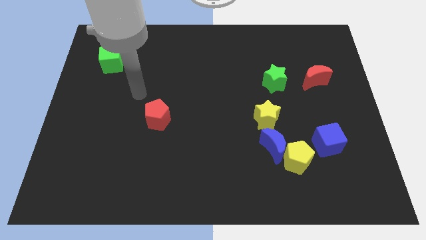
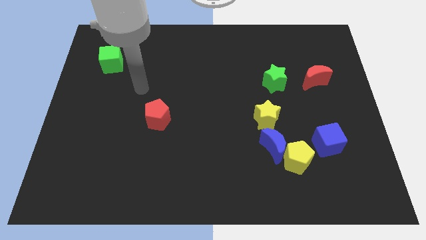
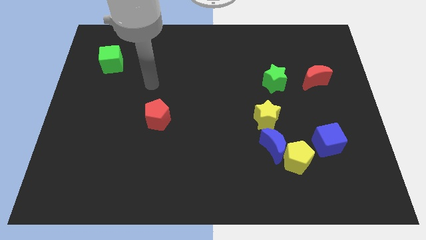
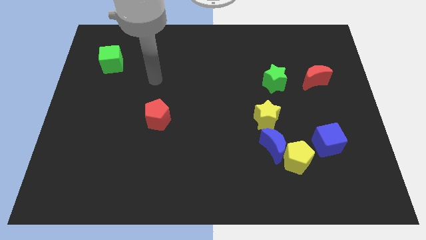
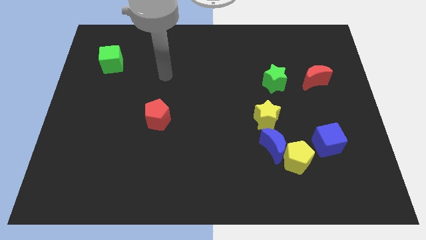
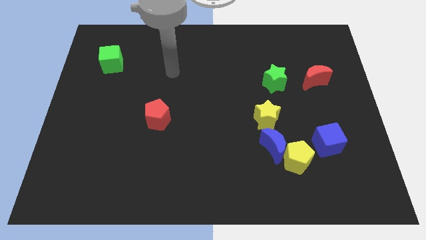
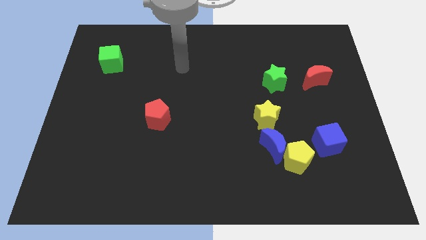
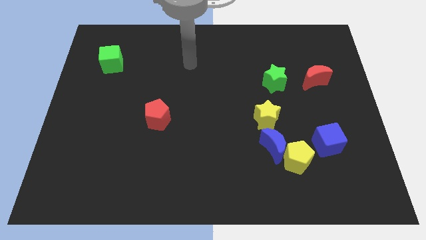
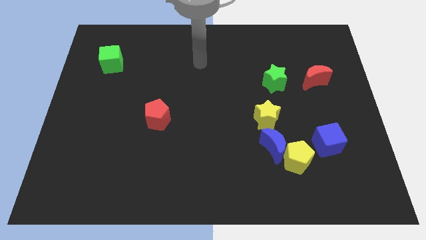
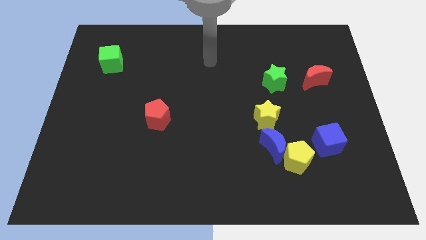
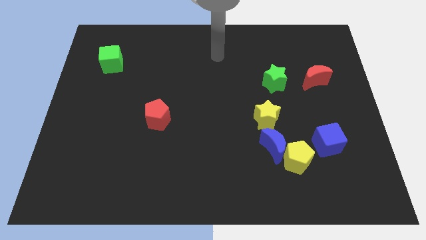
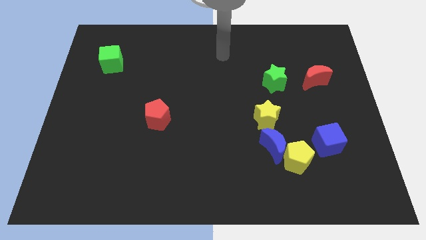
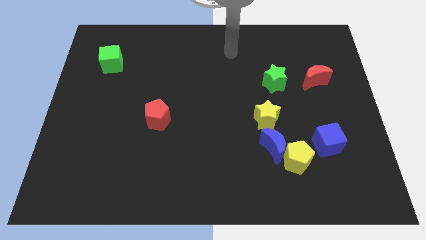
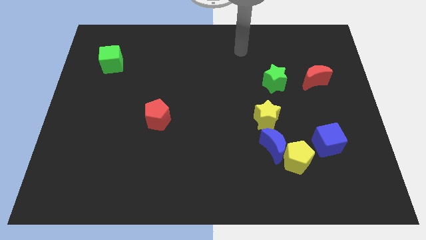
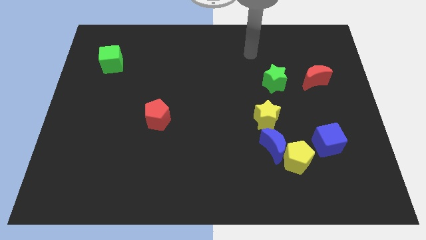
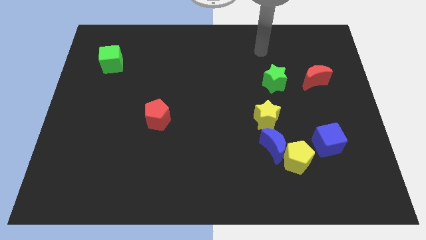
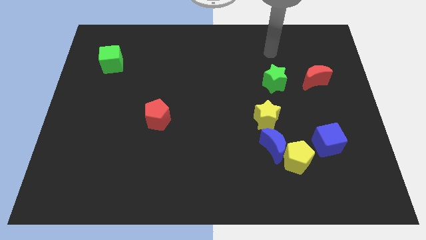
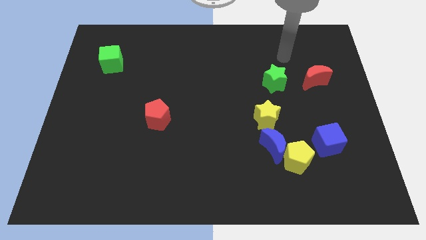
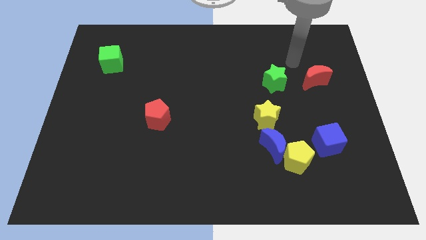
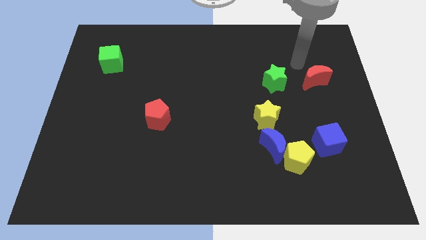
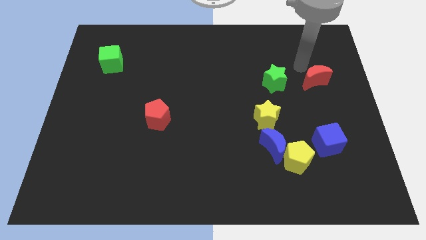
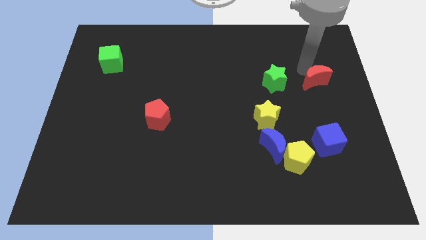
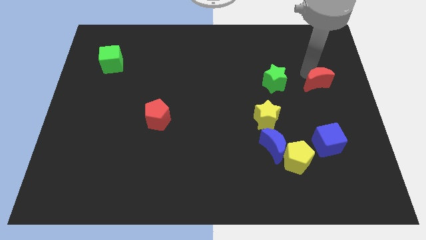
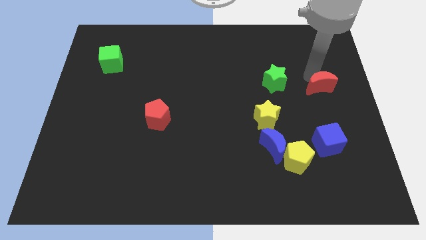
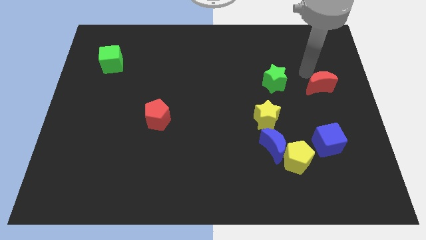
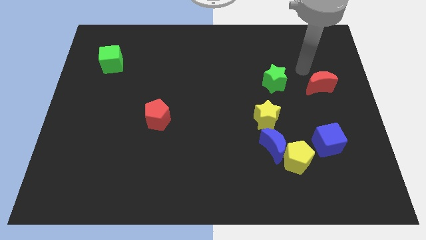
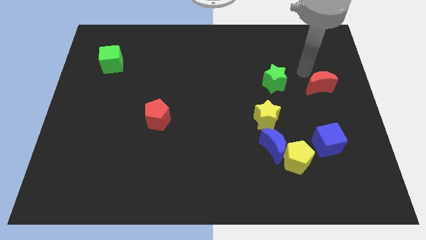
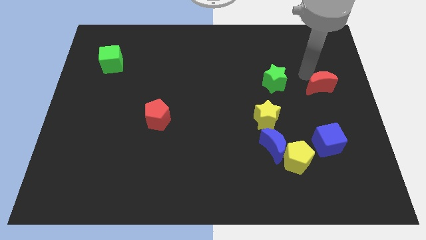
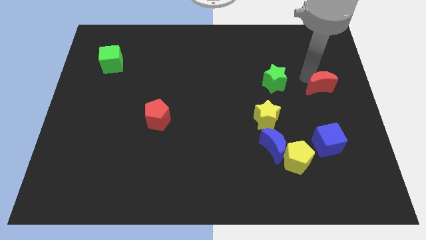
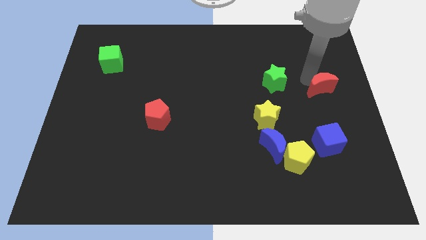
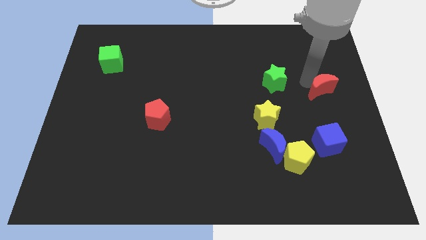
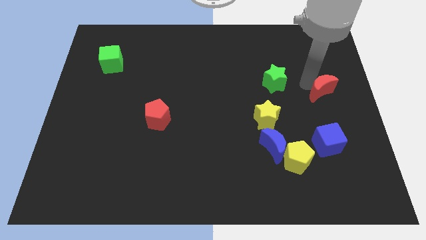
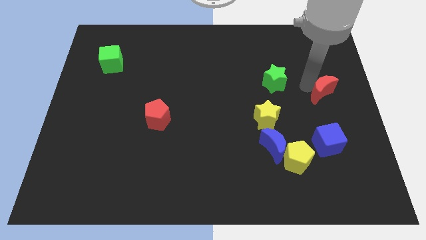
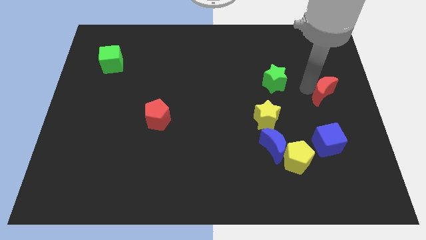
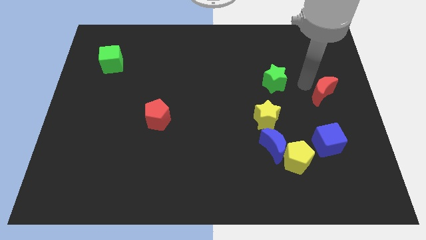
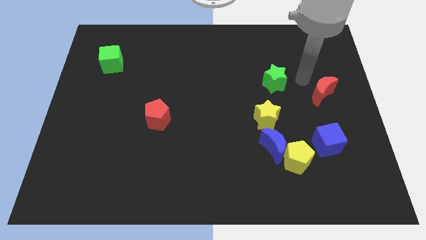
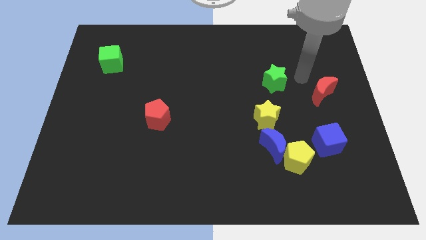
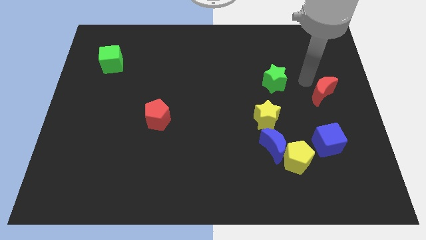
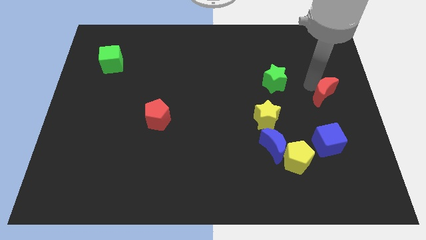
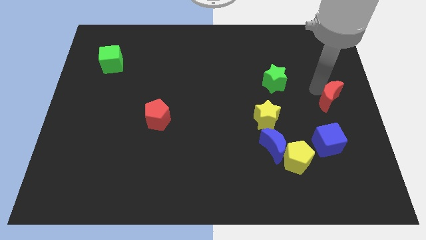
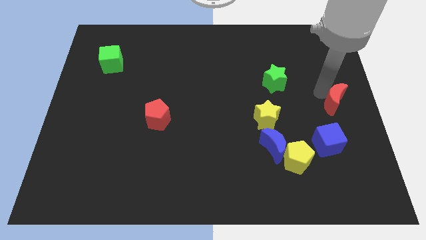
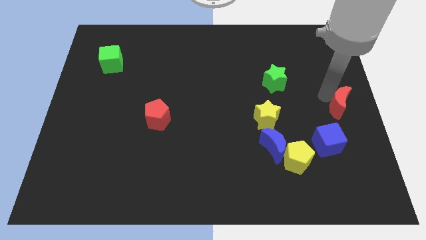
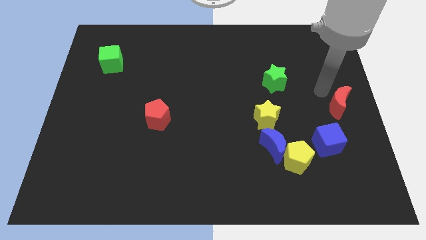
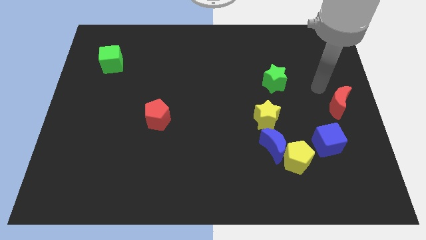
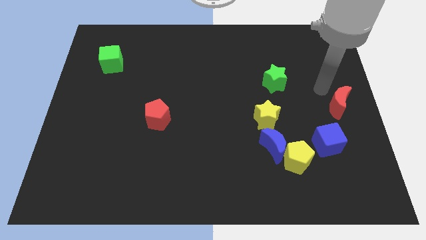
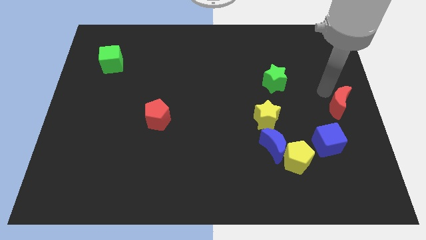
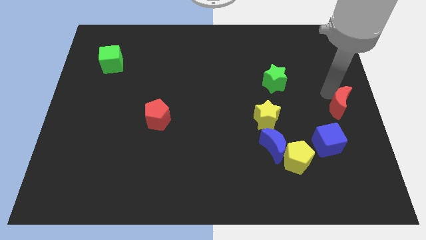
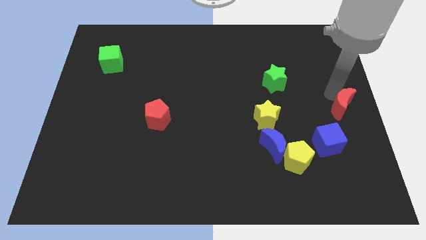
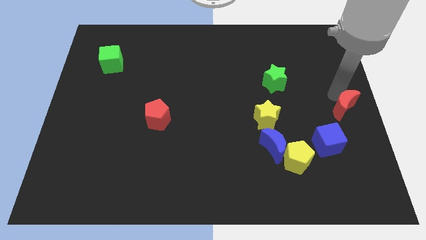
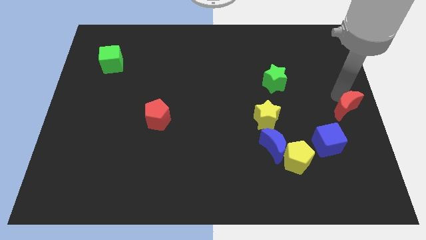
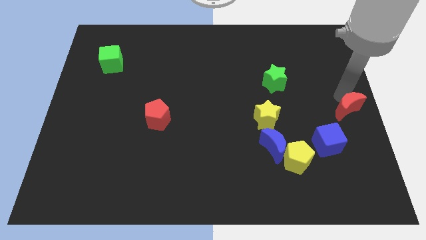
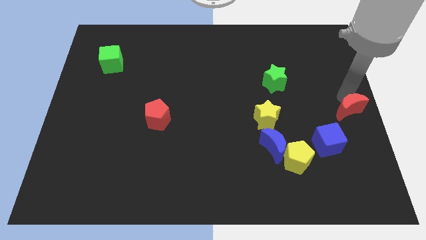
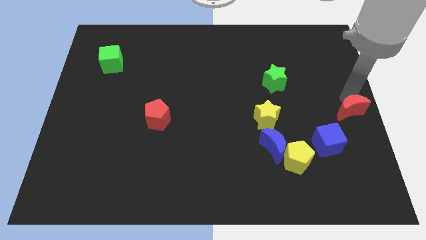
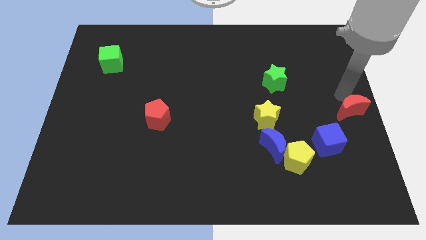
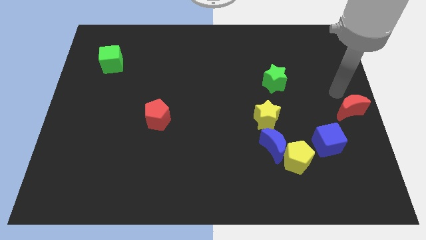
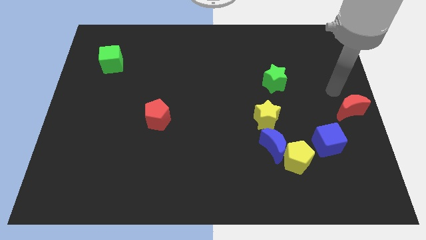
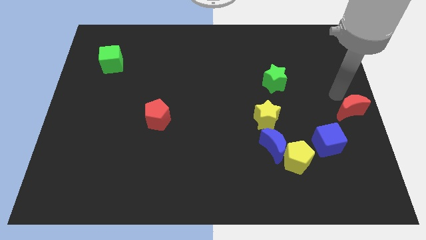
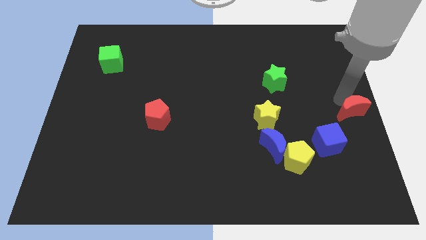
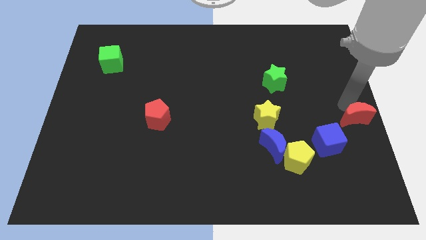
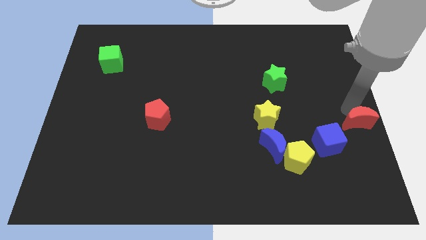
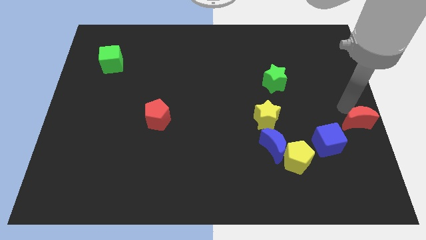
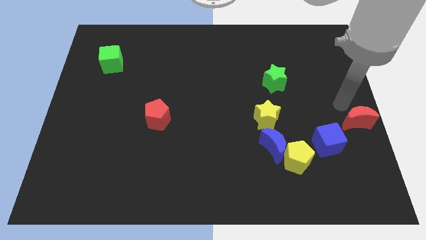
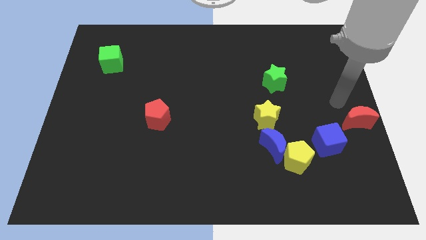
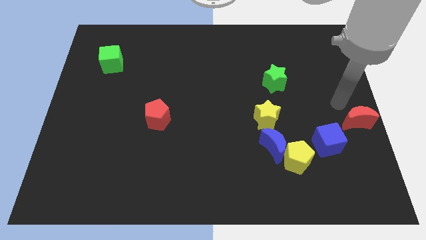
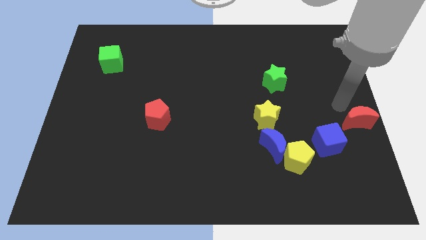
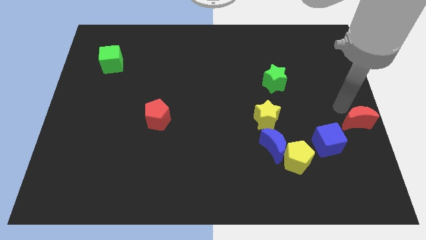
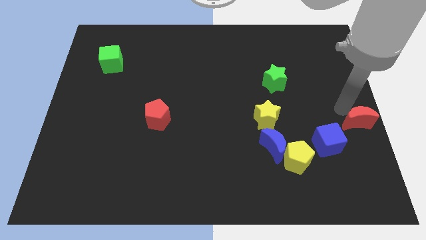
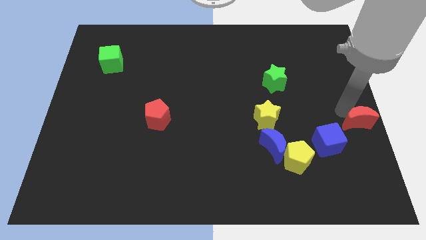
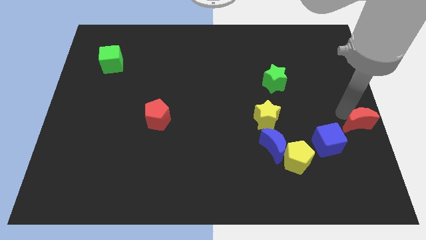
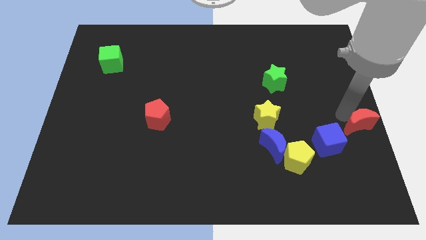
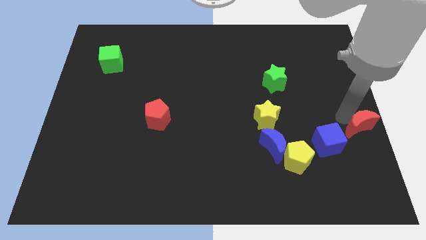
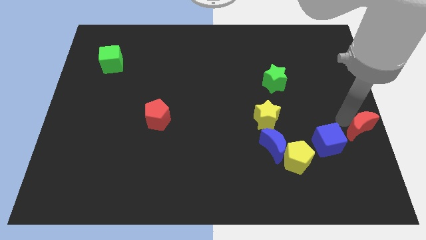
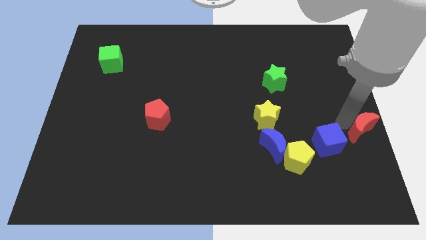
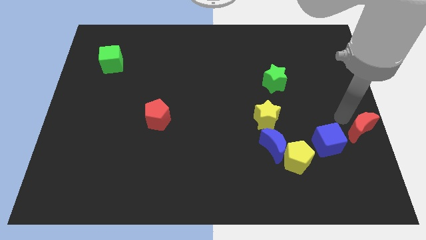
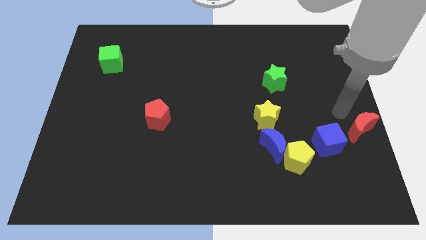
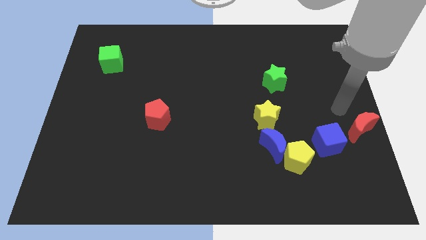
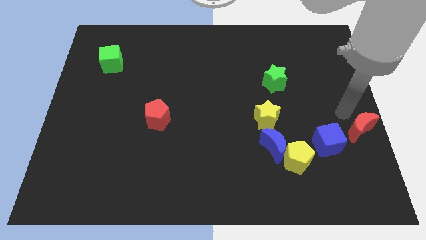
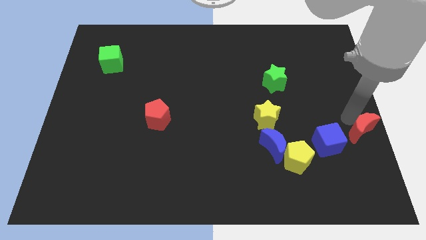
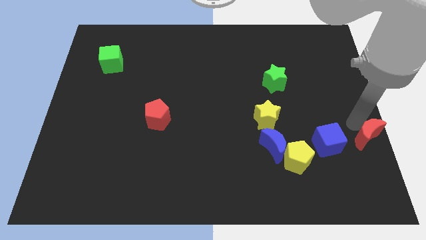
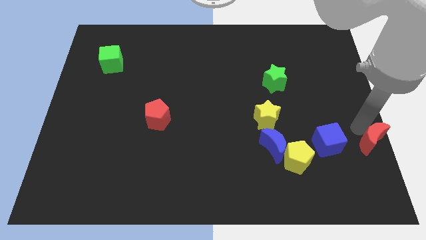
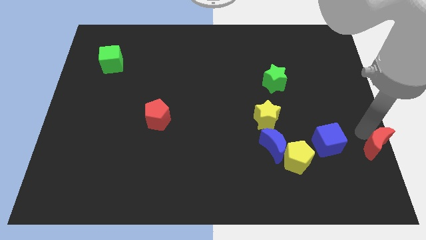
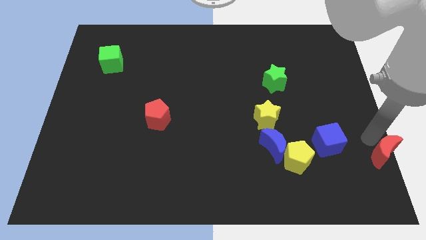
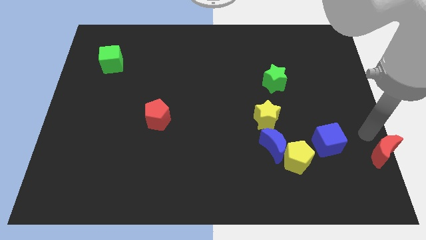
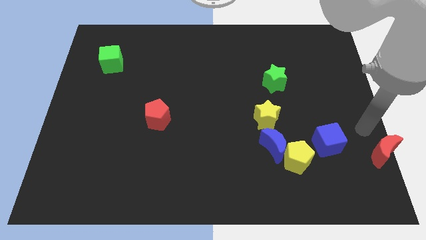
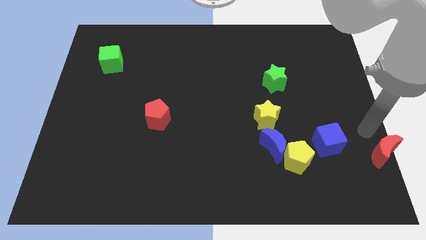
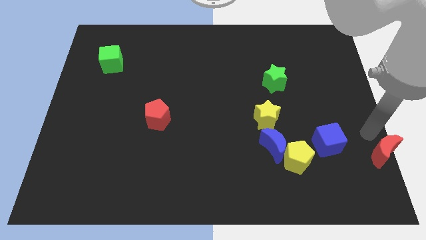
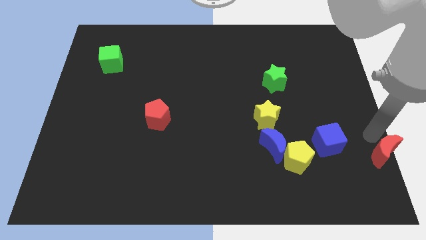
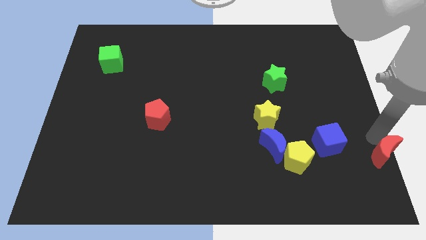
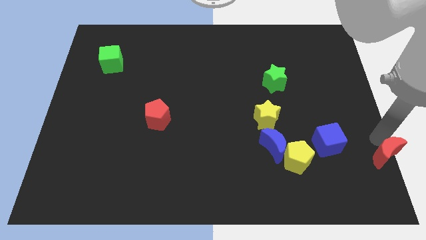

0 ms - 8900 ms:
move the red moon to the bottom right
